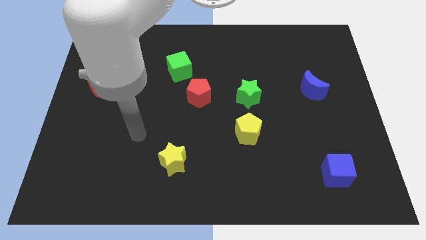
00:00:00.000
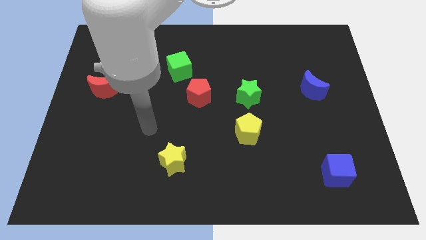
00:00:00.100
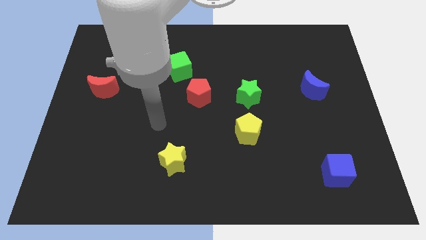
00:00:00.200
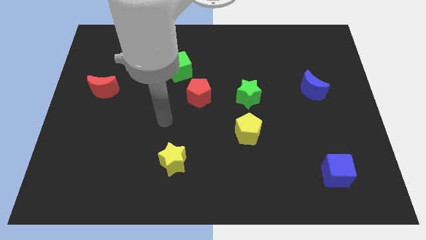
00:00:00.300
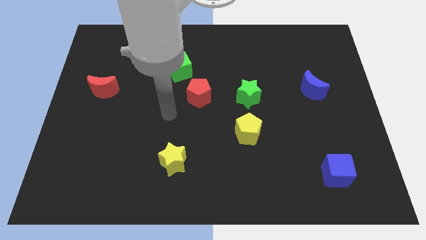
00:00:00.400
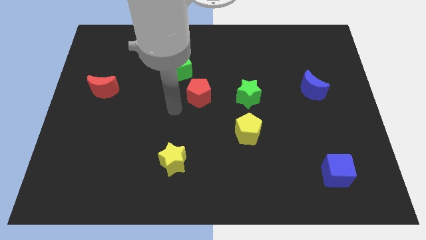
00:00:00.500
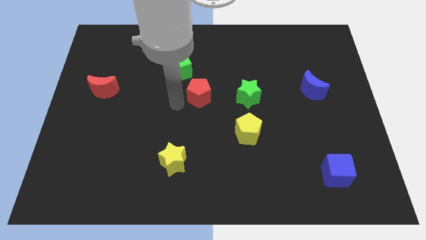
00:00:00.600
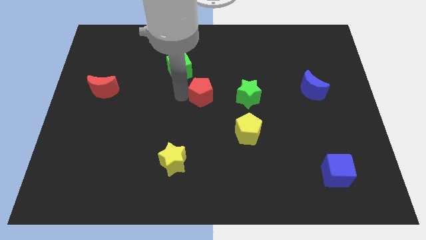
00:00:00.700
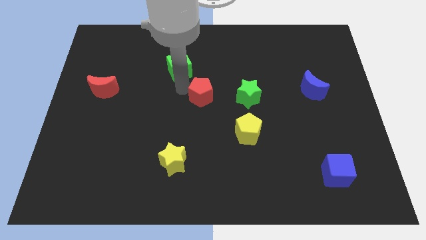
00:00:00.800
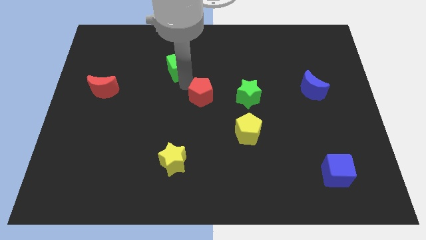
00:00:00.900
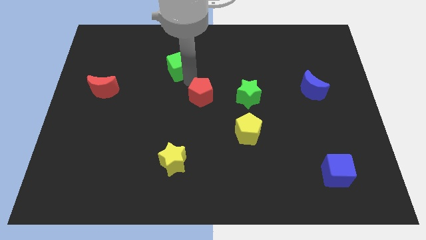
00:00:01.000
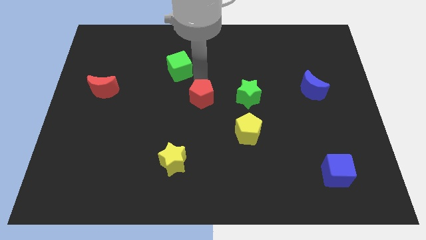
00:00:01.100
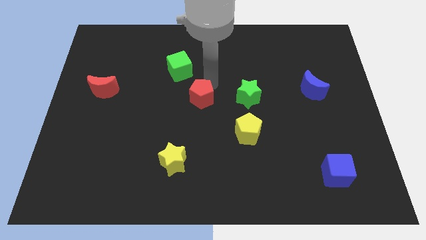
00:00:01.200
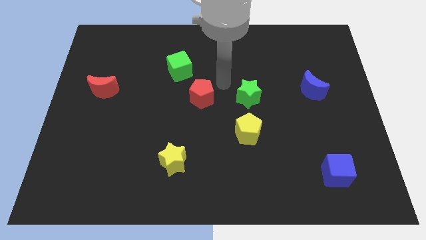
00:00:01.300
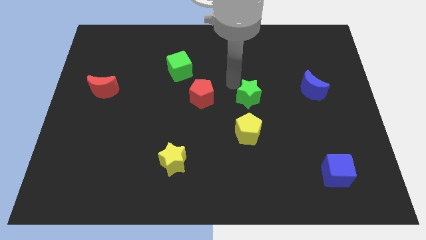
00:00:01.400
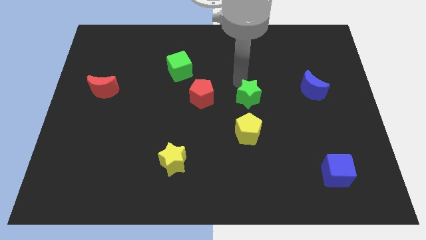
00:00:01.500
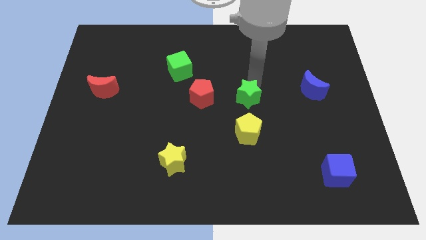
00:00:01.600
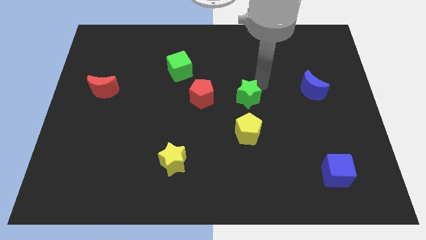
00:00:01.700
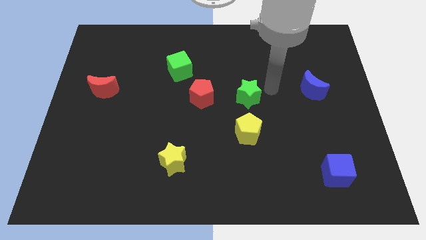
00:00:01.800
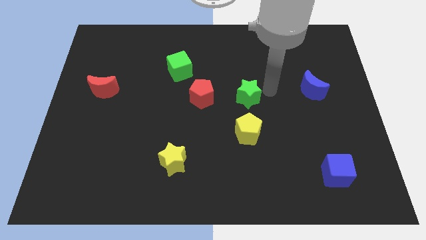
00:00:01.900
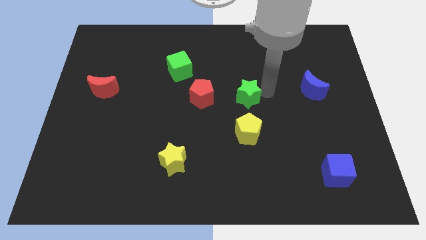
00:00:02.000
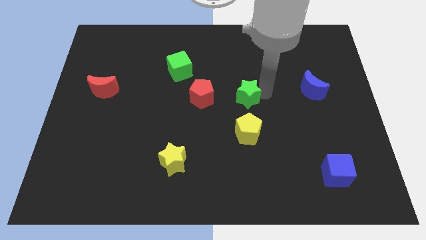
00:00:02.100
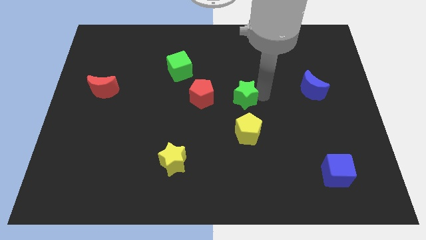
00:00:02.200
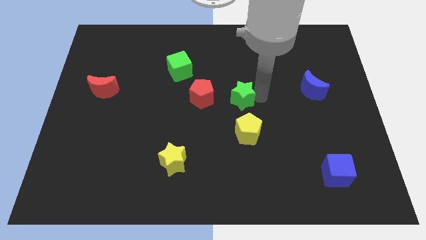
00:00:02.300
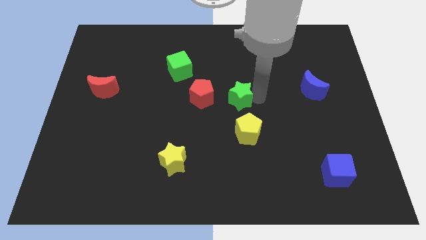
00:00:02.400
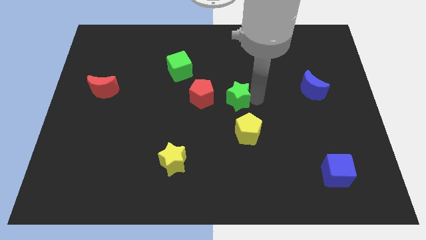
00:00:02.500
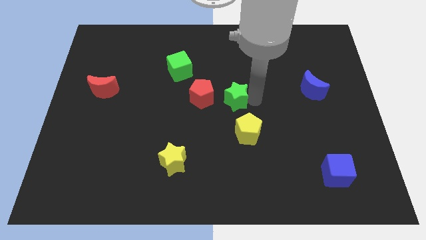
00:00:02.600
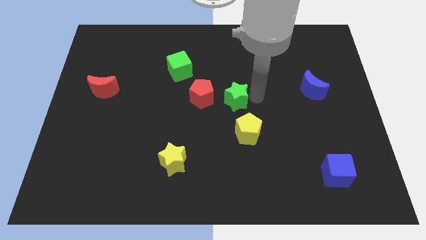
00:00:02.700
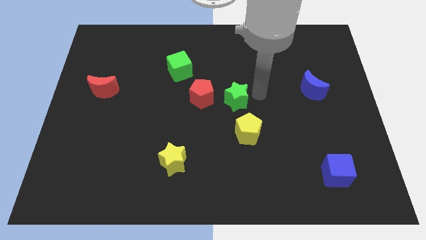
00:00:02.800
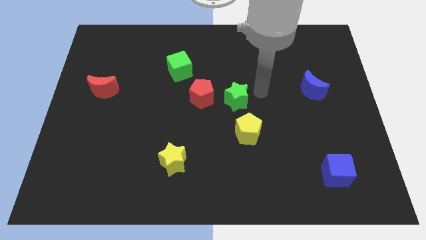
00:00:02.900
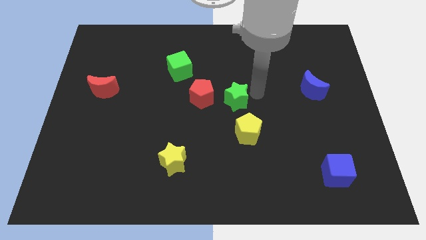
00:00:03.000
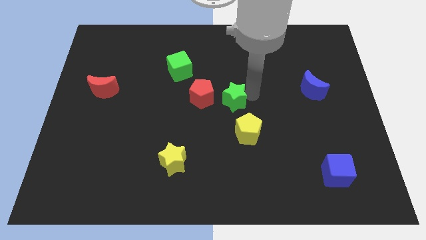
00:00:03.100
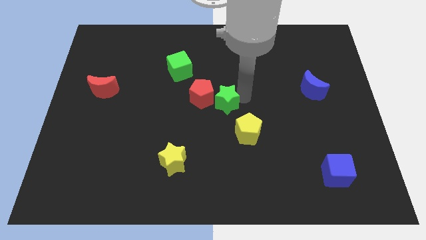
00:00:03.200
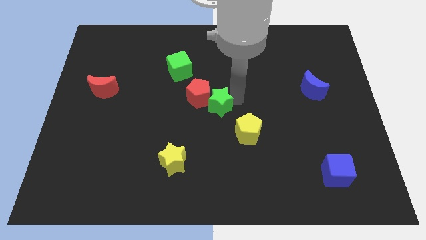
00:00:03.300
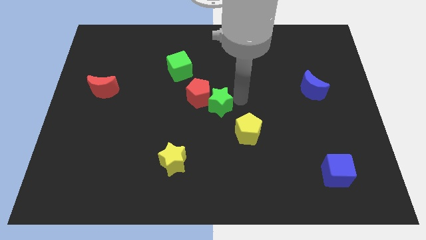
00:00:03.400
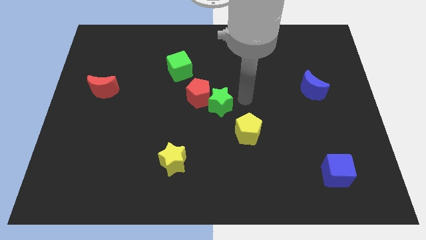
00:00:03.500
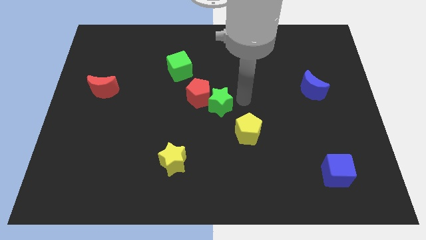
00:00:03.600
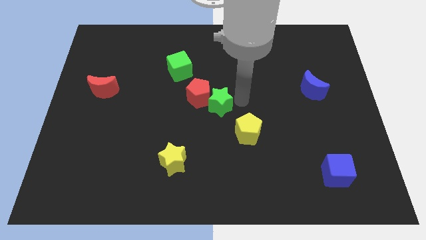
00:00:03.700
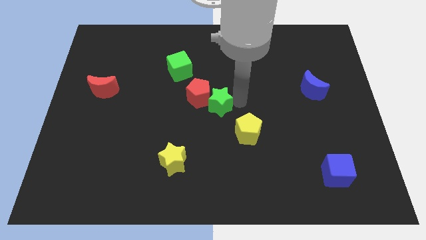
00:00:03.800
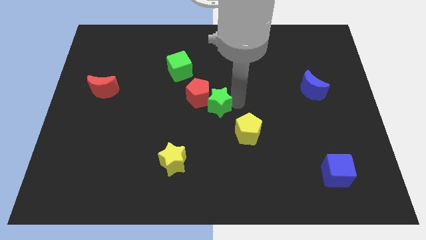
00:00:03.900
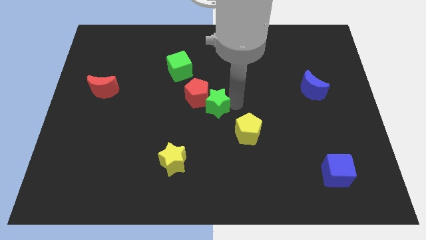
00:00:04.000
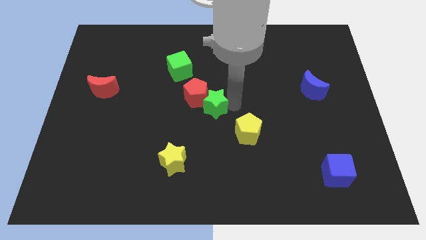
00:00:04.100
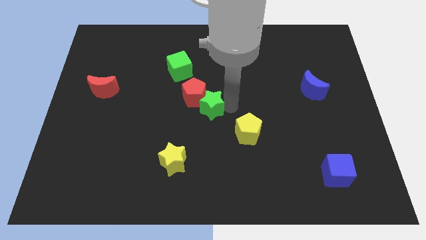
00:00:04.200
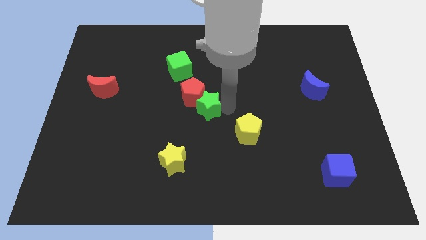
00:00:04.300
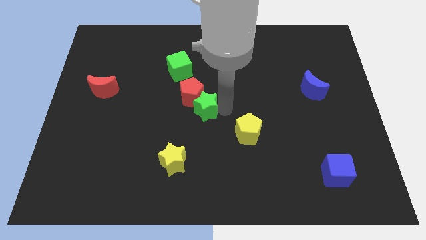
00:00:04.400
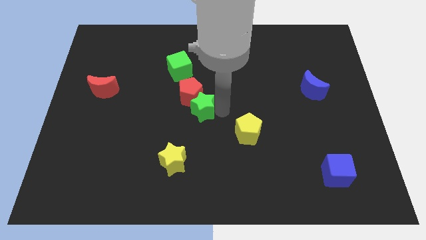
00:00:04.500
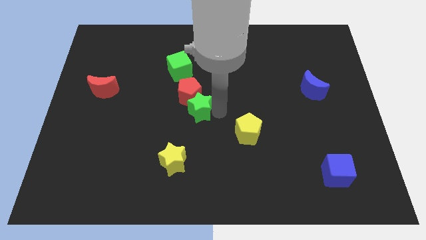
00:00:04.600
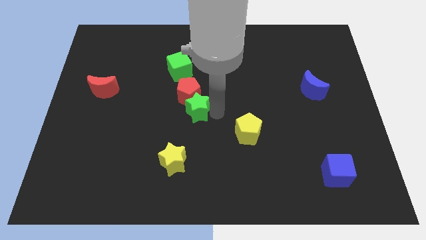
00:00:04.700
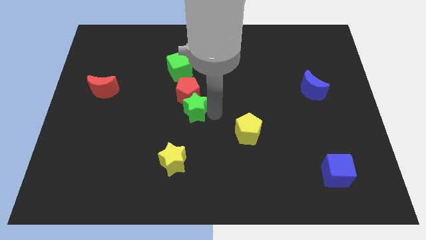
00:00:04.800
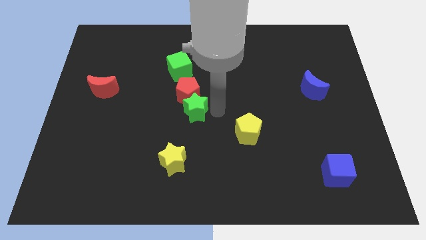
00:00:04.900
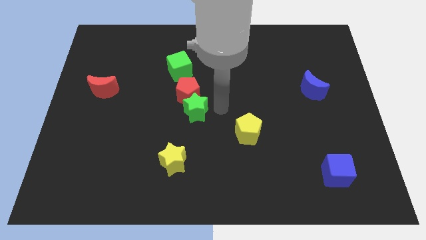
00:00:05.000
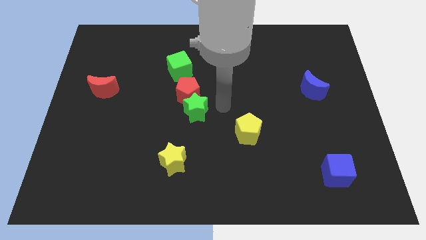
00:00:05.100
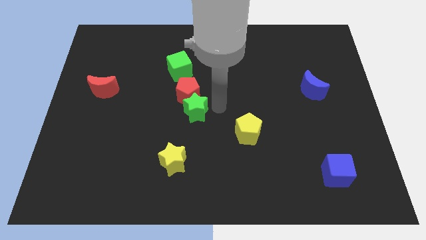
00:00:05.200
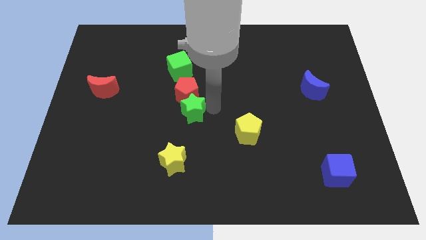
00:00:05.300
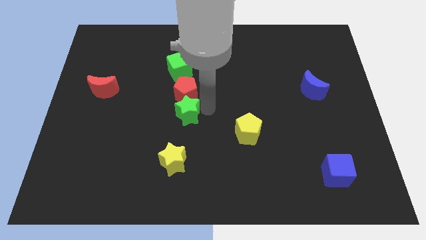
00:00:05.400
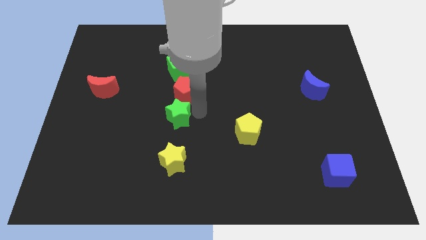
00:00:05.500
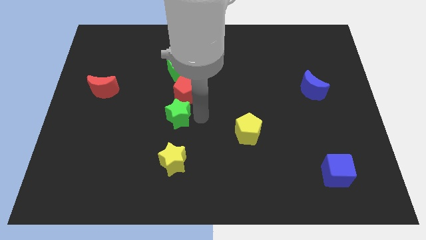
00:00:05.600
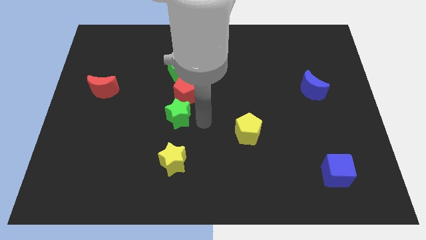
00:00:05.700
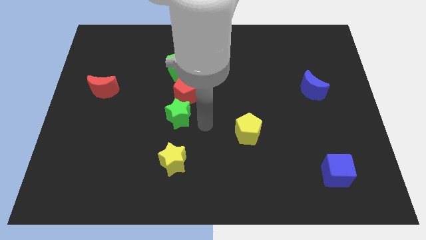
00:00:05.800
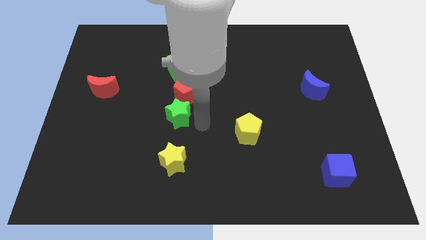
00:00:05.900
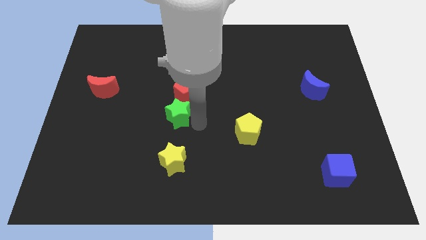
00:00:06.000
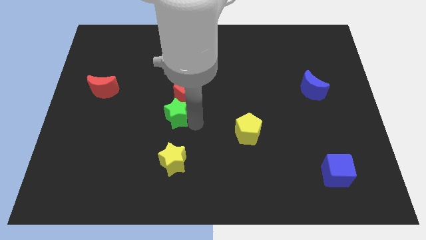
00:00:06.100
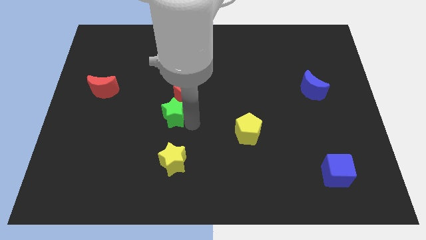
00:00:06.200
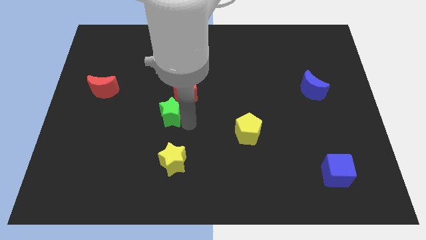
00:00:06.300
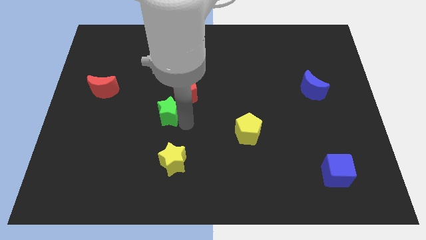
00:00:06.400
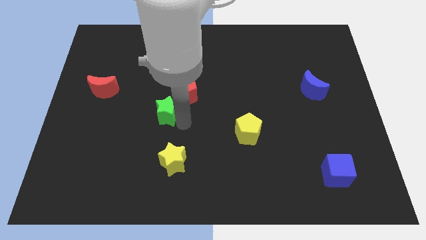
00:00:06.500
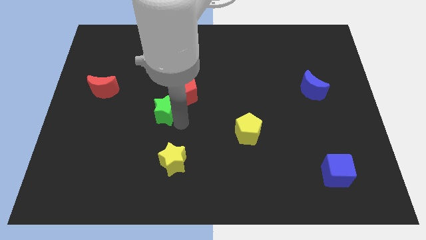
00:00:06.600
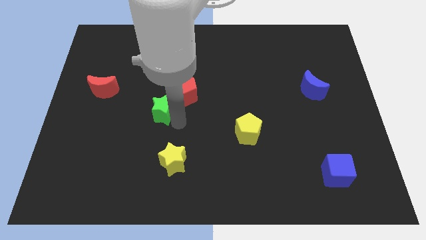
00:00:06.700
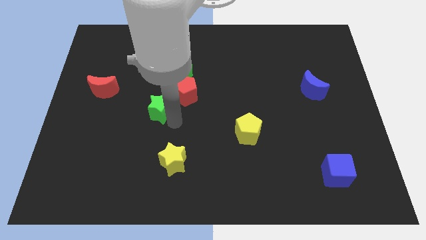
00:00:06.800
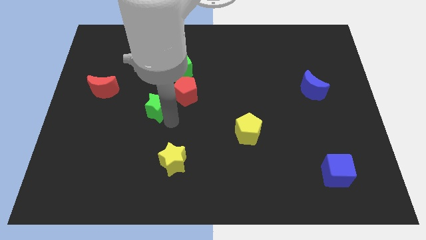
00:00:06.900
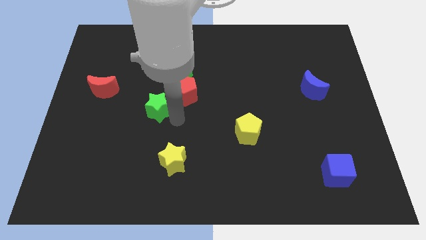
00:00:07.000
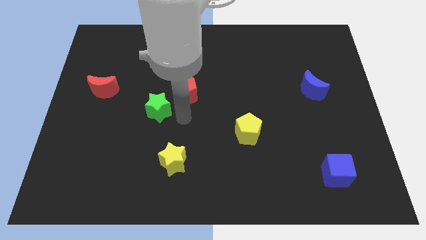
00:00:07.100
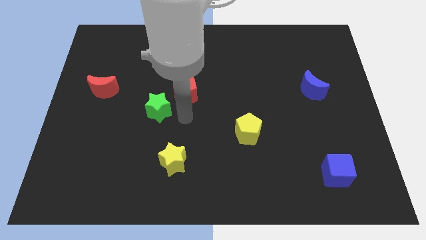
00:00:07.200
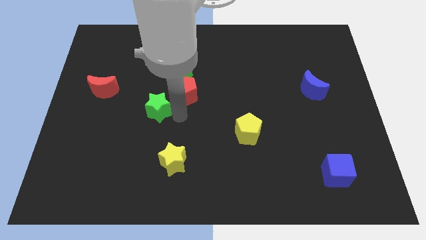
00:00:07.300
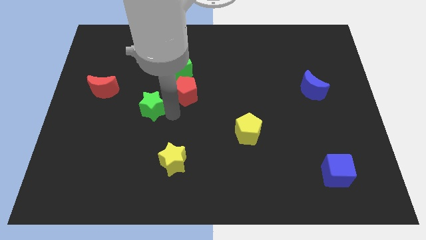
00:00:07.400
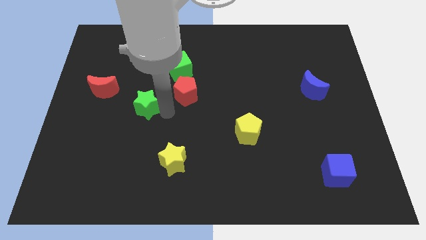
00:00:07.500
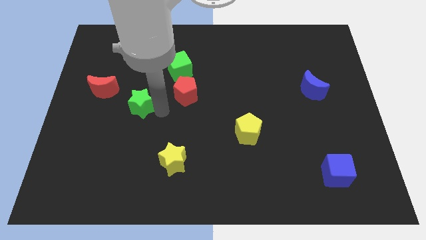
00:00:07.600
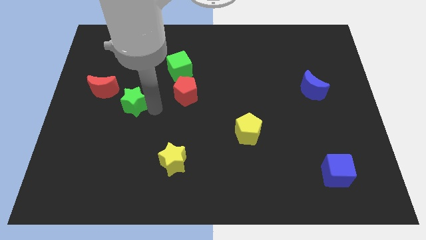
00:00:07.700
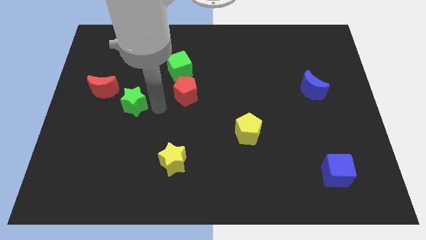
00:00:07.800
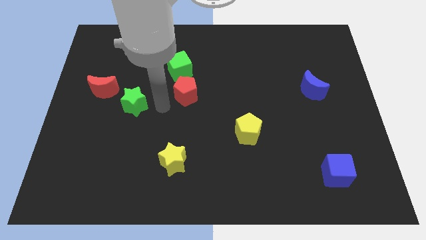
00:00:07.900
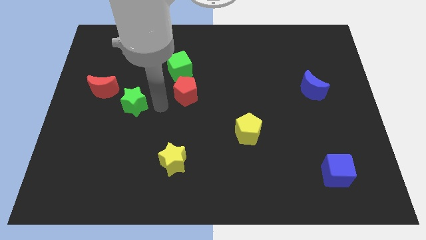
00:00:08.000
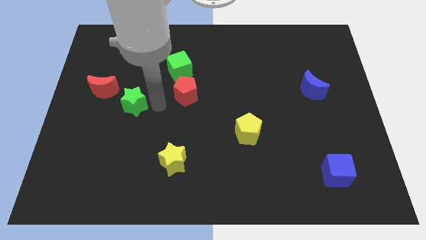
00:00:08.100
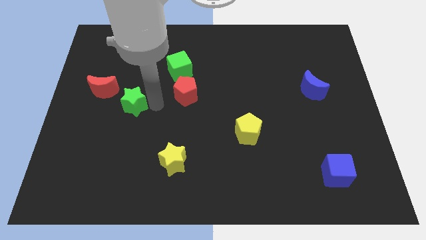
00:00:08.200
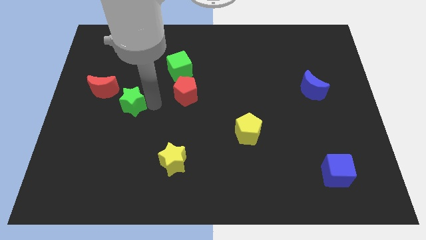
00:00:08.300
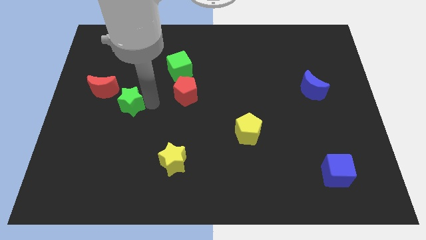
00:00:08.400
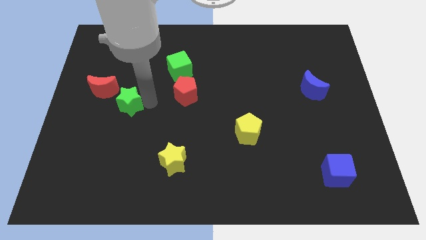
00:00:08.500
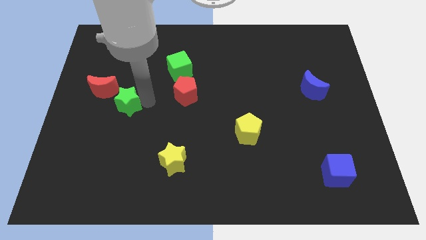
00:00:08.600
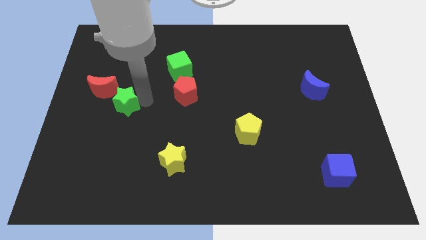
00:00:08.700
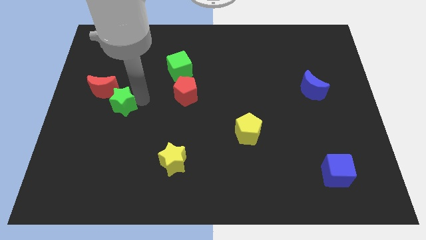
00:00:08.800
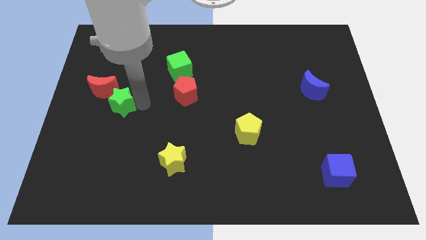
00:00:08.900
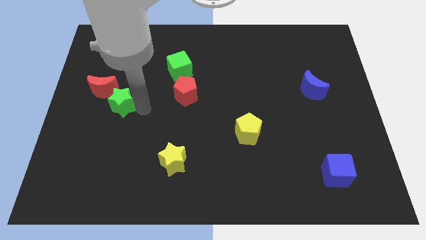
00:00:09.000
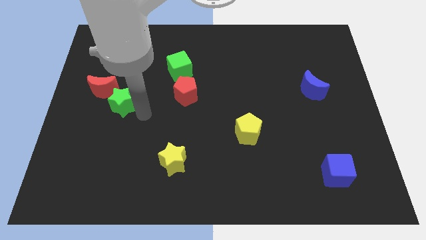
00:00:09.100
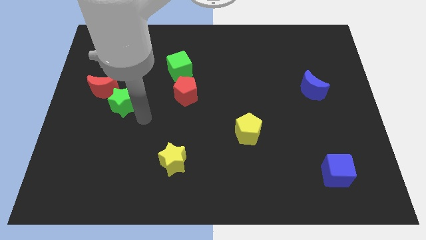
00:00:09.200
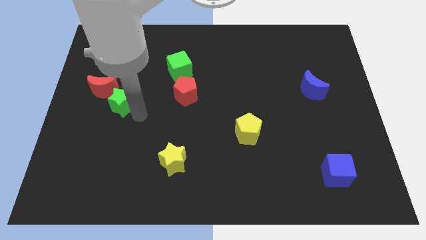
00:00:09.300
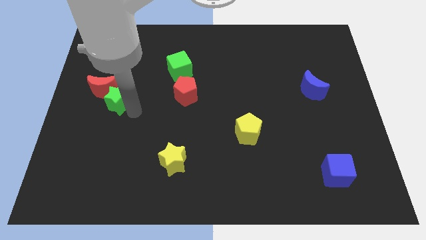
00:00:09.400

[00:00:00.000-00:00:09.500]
slide the green star to the red moon
